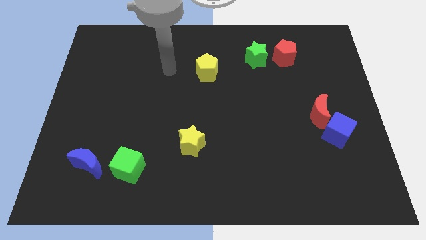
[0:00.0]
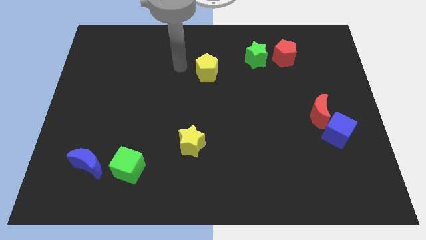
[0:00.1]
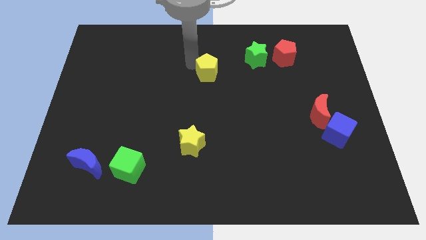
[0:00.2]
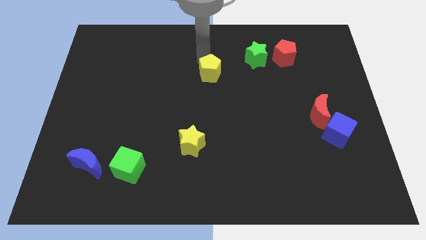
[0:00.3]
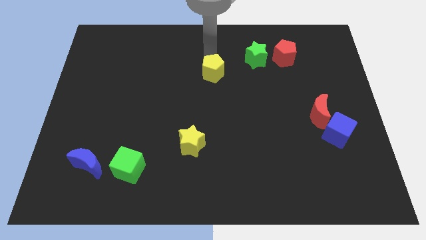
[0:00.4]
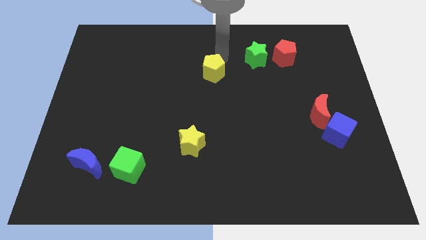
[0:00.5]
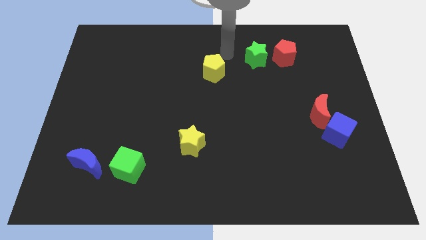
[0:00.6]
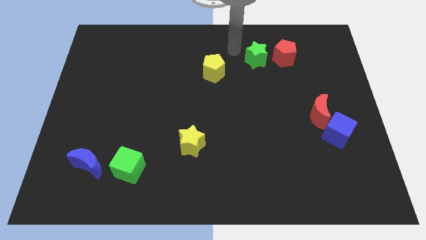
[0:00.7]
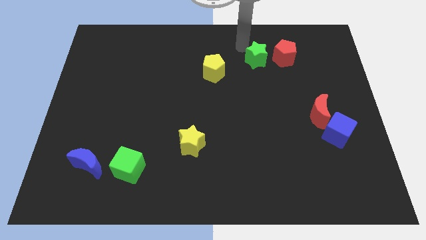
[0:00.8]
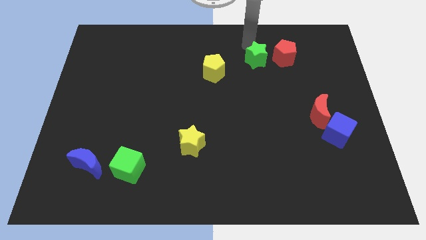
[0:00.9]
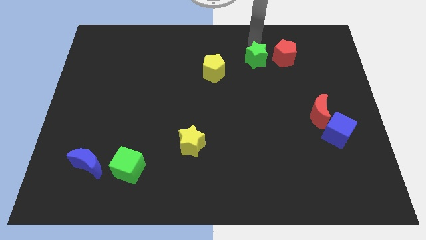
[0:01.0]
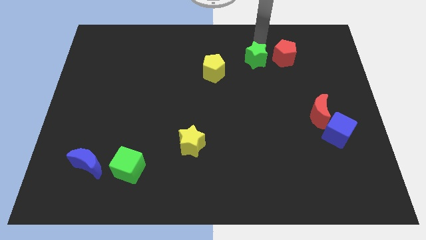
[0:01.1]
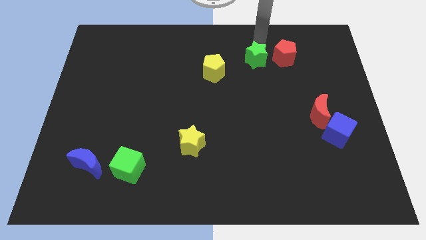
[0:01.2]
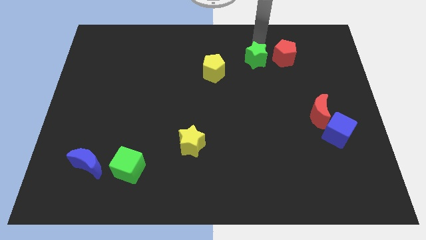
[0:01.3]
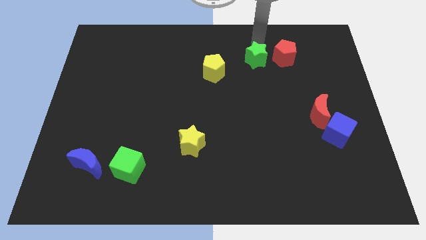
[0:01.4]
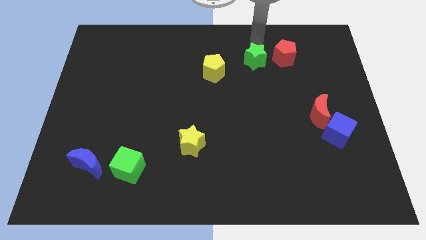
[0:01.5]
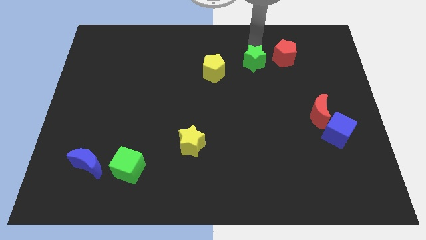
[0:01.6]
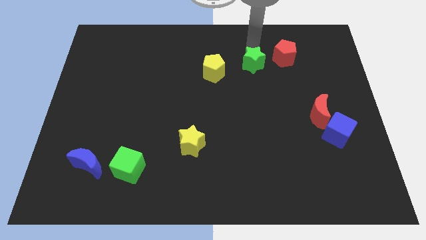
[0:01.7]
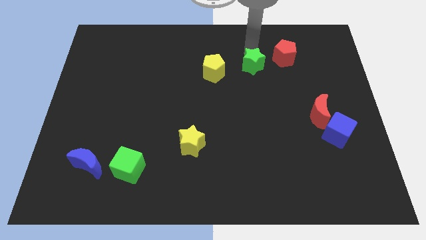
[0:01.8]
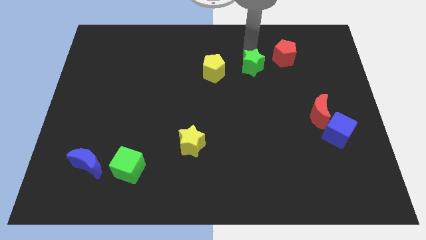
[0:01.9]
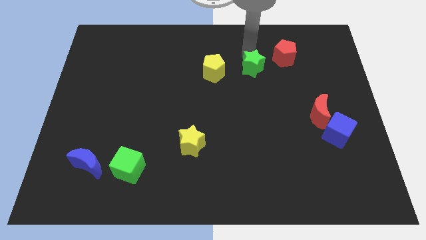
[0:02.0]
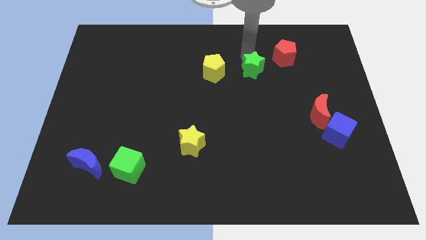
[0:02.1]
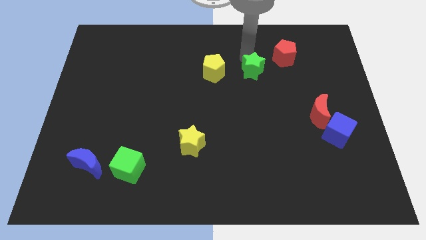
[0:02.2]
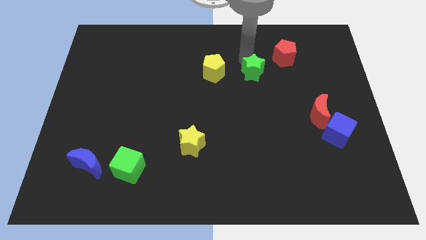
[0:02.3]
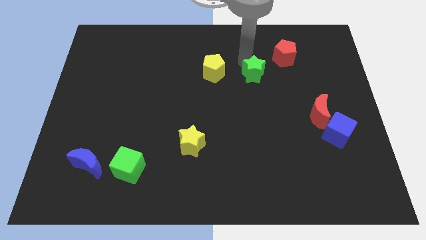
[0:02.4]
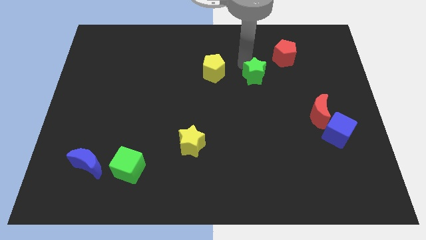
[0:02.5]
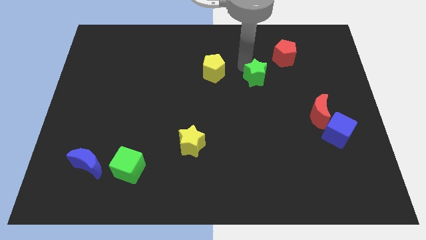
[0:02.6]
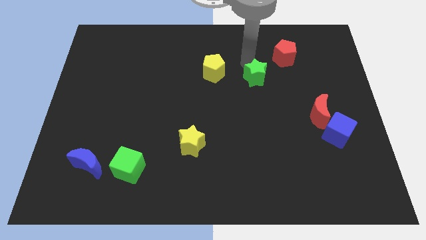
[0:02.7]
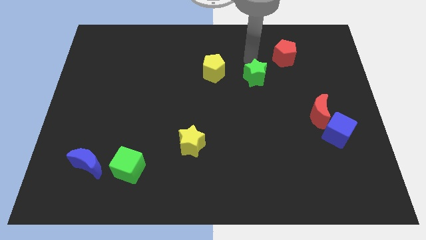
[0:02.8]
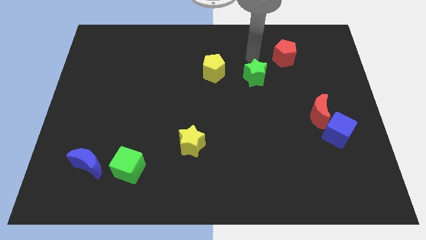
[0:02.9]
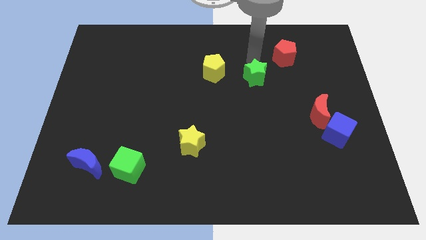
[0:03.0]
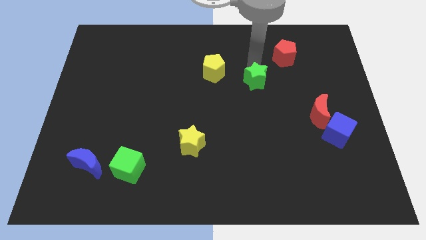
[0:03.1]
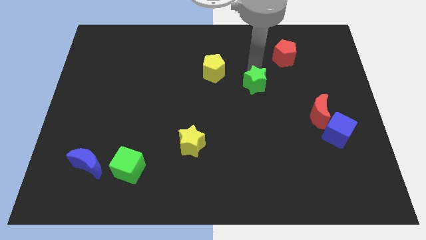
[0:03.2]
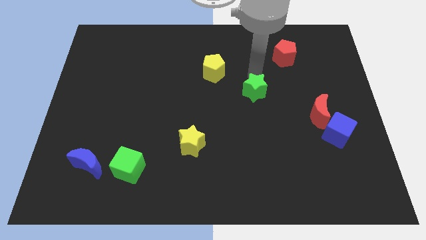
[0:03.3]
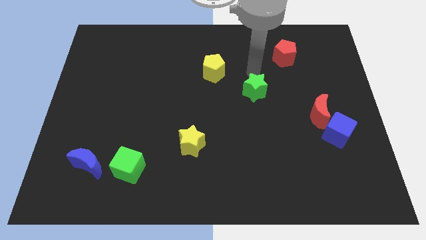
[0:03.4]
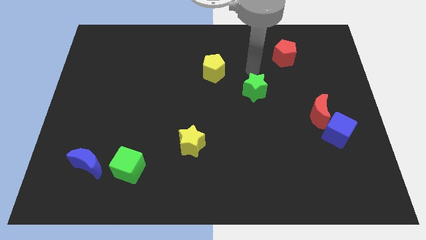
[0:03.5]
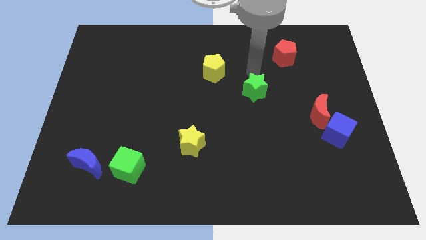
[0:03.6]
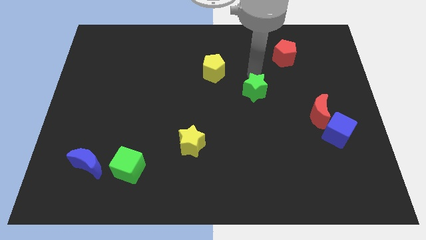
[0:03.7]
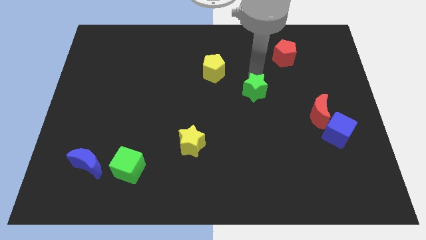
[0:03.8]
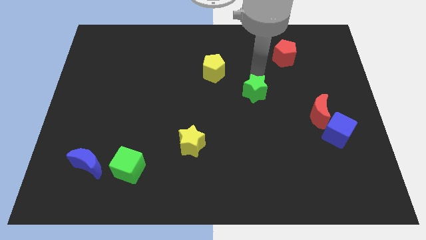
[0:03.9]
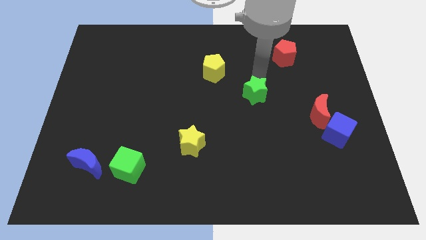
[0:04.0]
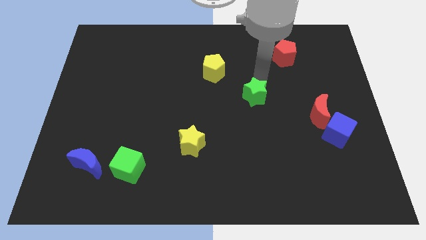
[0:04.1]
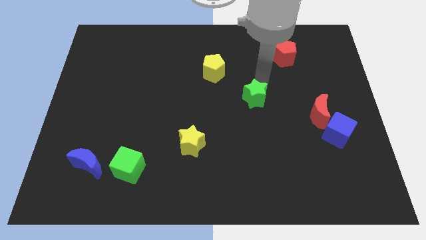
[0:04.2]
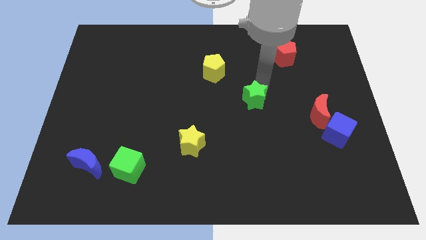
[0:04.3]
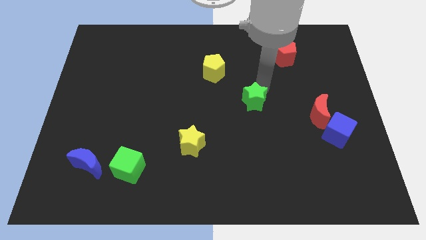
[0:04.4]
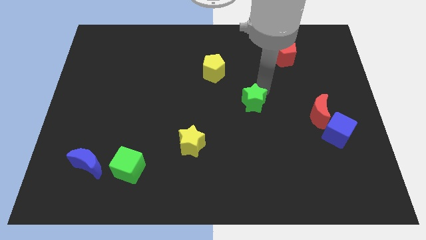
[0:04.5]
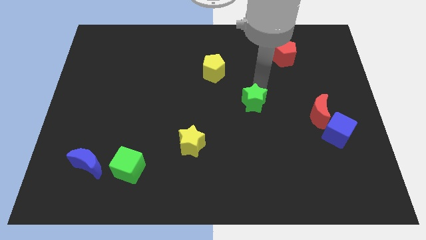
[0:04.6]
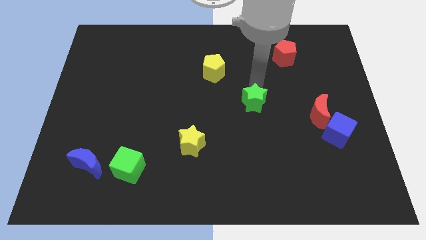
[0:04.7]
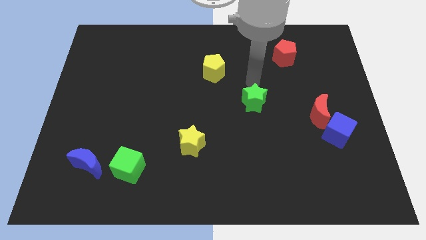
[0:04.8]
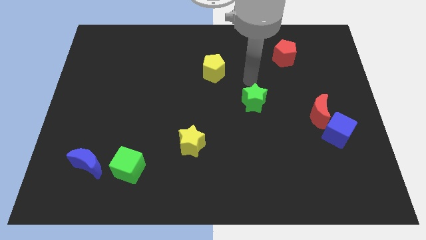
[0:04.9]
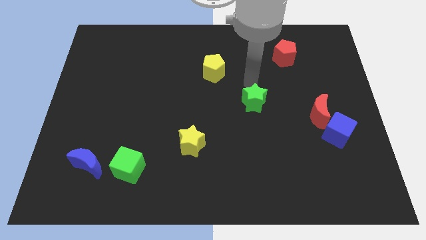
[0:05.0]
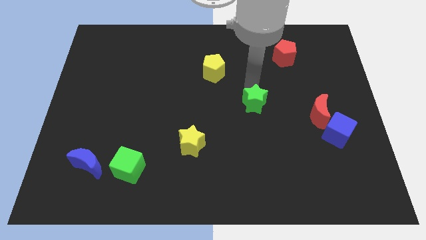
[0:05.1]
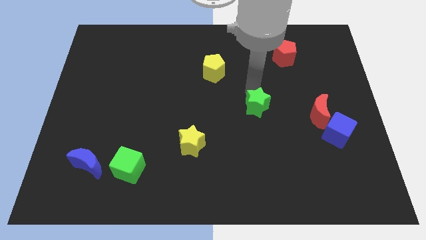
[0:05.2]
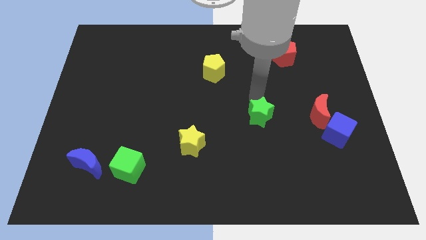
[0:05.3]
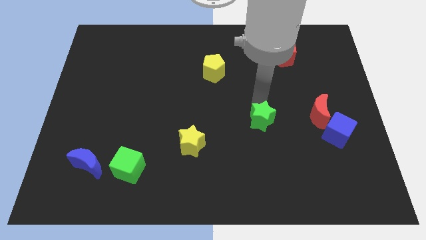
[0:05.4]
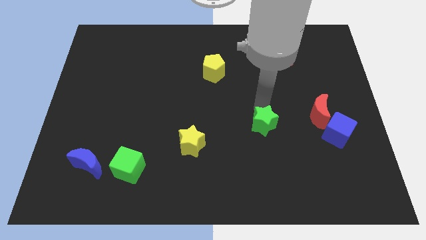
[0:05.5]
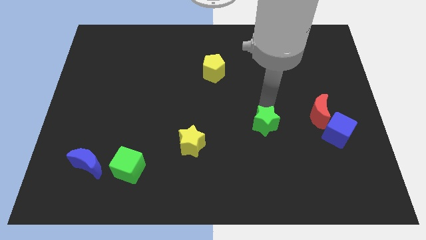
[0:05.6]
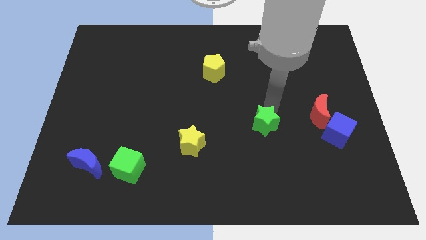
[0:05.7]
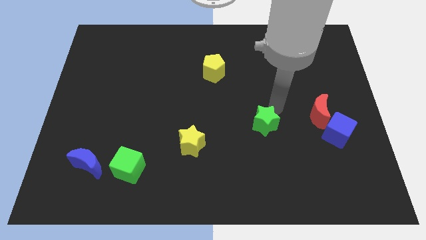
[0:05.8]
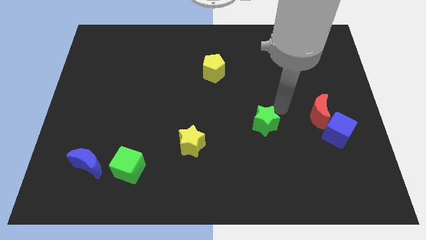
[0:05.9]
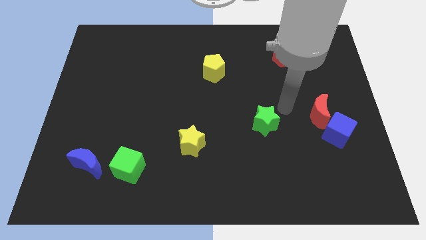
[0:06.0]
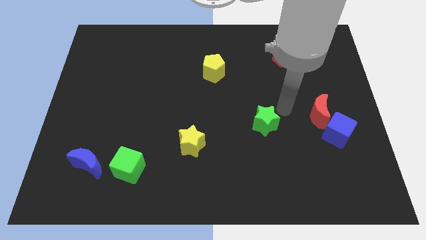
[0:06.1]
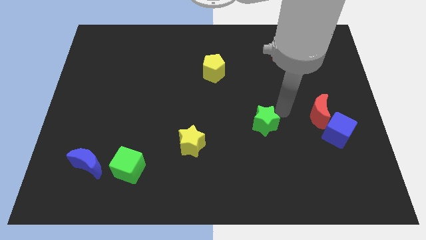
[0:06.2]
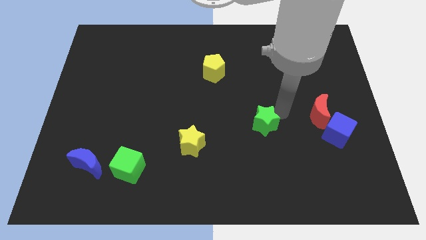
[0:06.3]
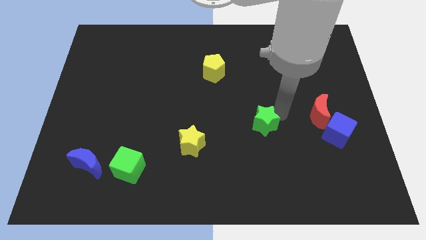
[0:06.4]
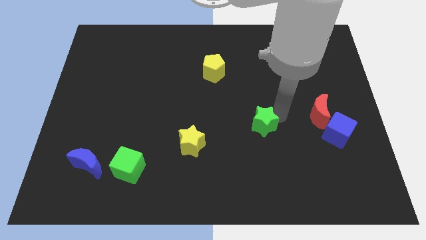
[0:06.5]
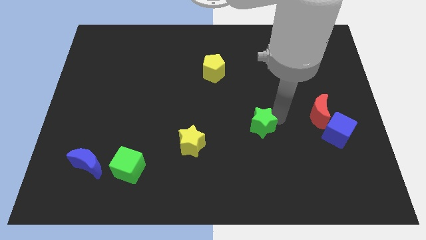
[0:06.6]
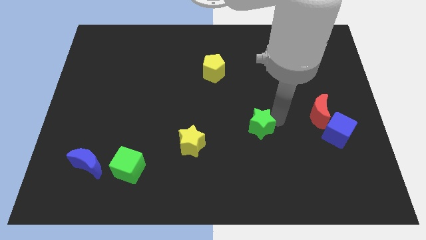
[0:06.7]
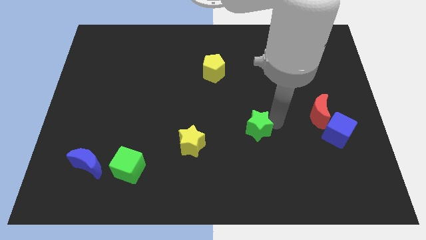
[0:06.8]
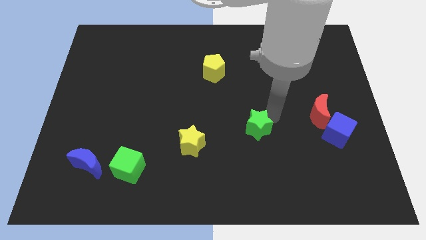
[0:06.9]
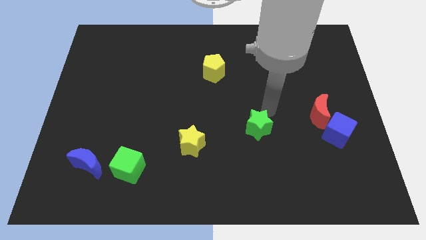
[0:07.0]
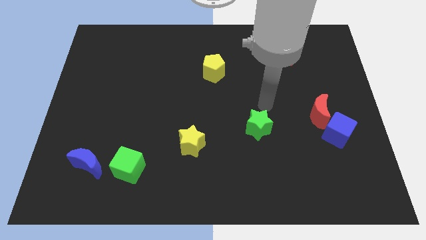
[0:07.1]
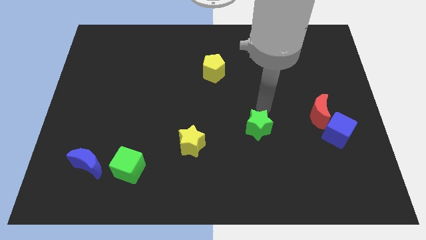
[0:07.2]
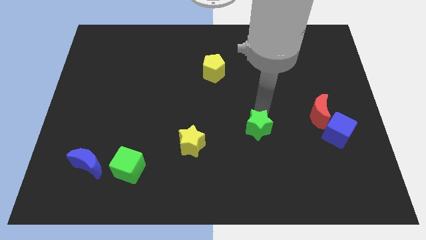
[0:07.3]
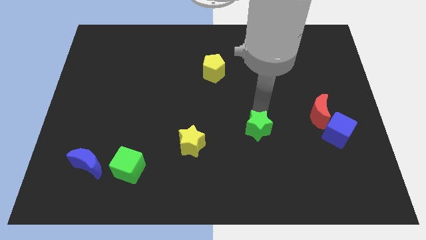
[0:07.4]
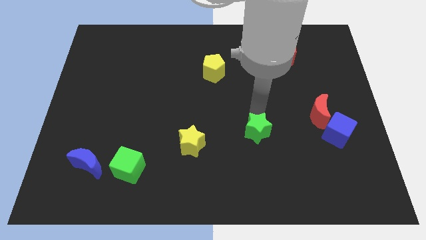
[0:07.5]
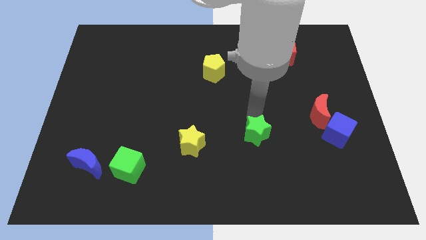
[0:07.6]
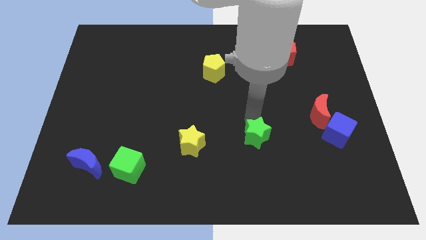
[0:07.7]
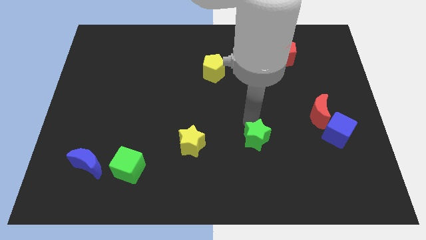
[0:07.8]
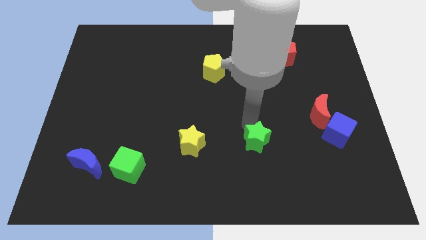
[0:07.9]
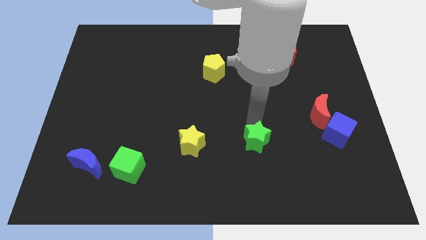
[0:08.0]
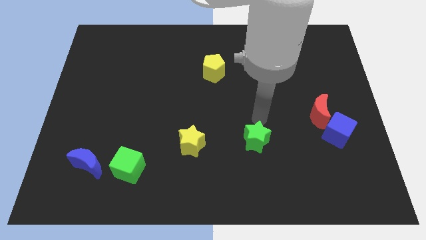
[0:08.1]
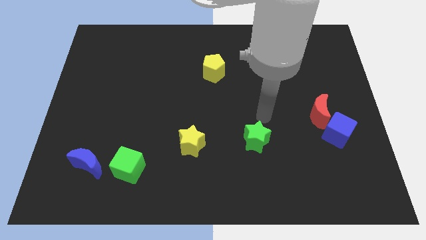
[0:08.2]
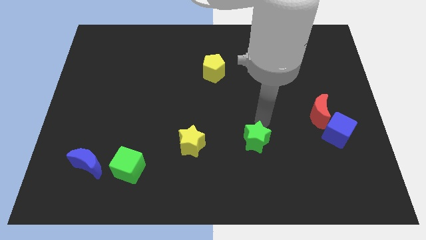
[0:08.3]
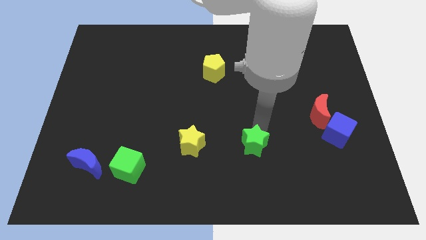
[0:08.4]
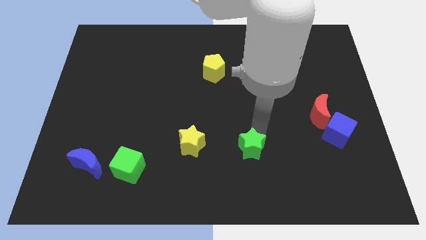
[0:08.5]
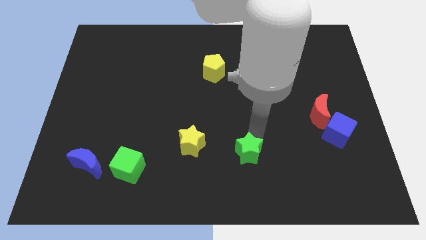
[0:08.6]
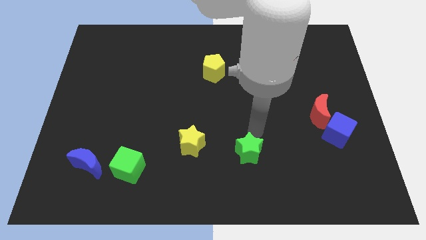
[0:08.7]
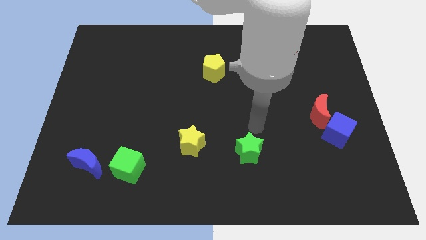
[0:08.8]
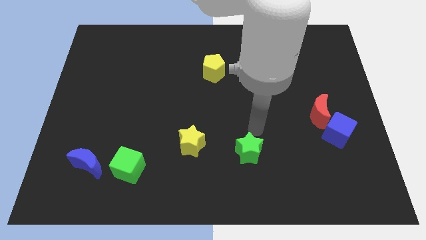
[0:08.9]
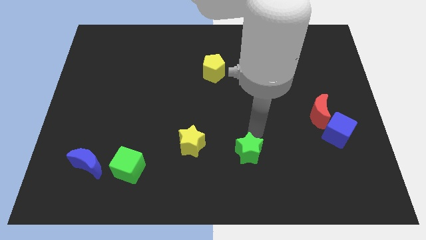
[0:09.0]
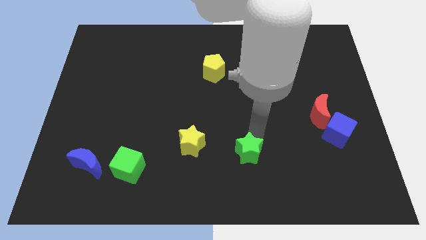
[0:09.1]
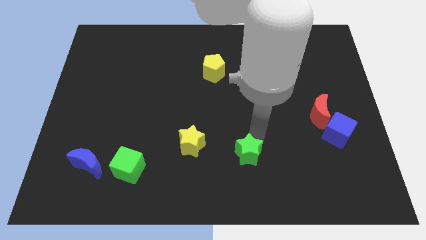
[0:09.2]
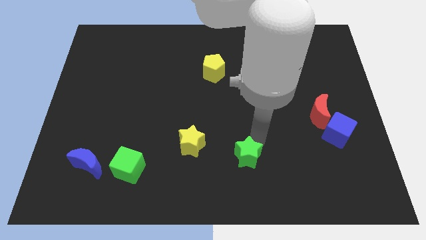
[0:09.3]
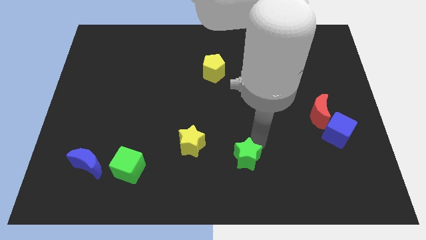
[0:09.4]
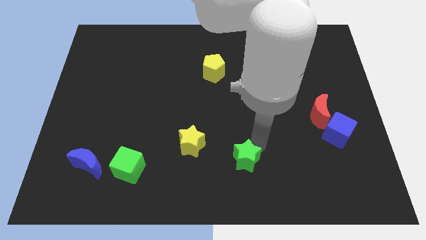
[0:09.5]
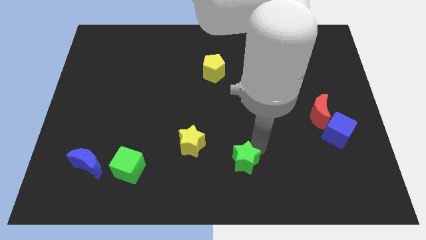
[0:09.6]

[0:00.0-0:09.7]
push the green star to the bottom
